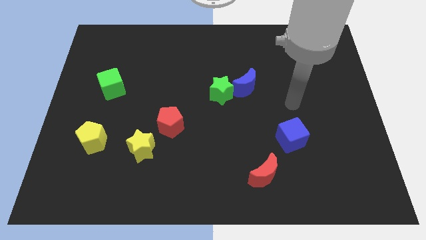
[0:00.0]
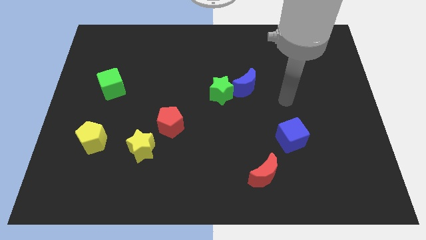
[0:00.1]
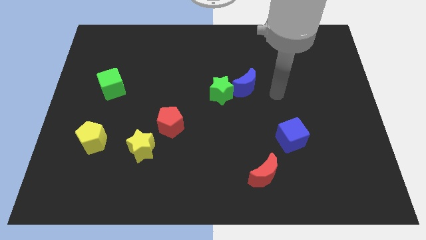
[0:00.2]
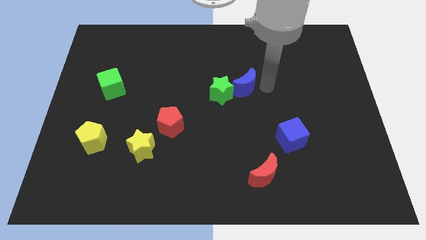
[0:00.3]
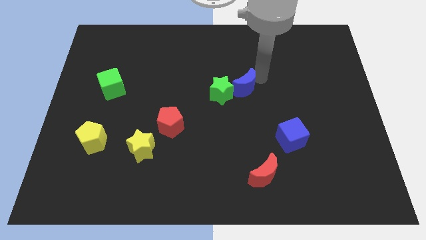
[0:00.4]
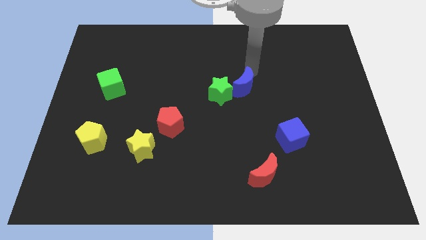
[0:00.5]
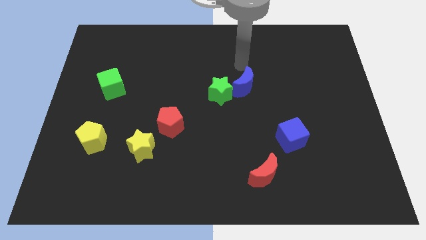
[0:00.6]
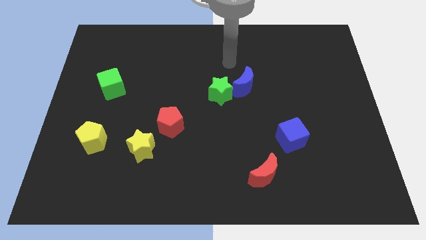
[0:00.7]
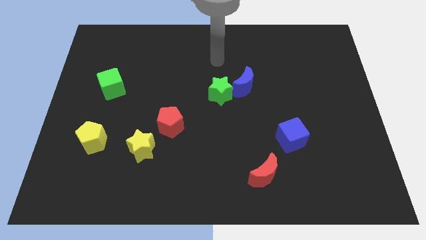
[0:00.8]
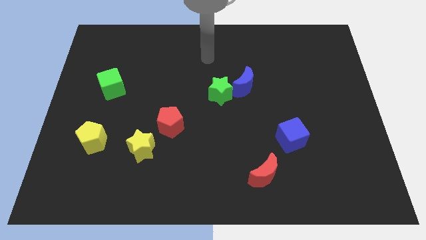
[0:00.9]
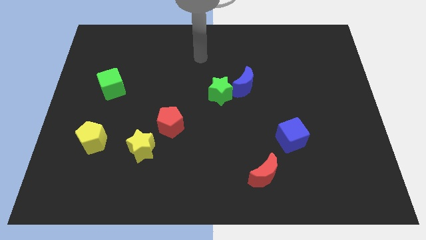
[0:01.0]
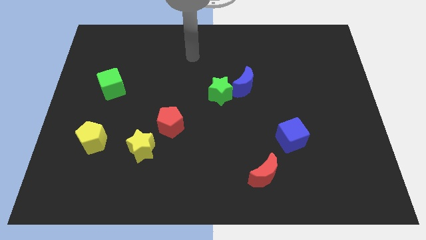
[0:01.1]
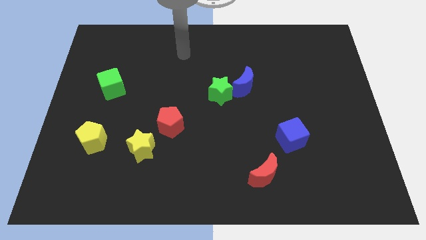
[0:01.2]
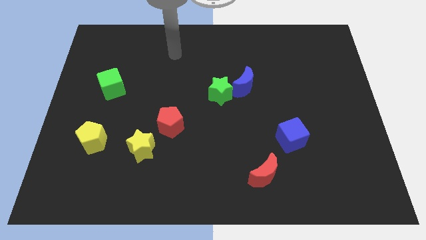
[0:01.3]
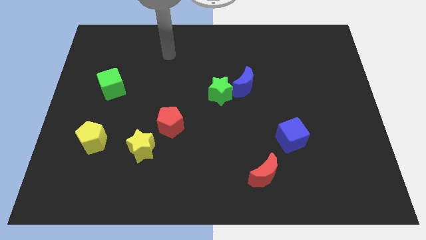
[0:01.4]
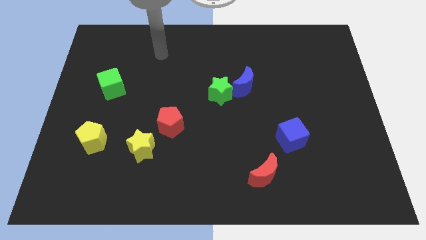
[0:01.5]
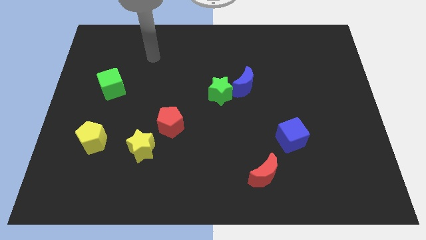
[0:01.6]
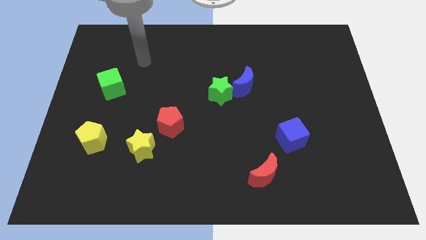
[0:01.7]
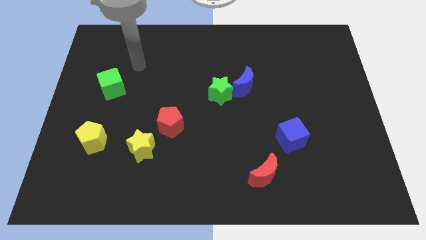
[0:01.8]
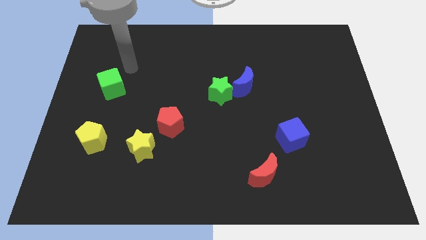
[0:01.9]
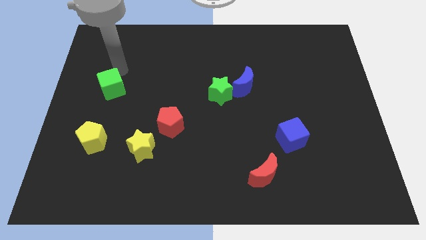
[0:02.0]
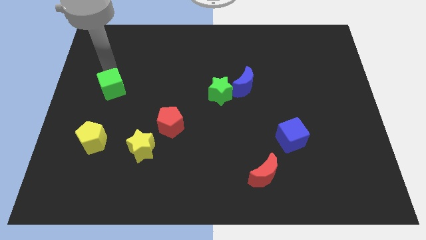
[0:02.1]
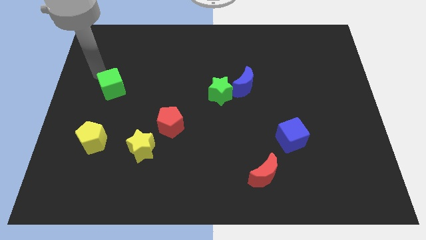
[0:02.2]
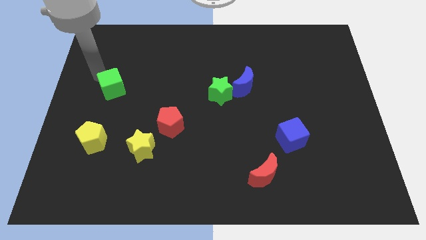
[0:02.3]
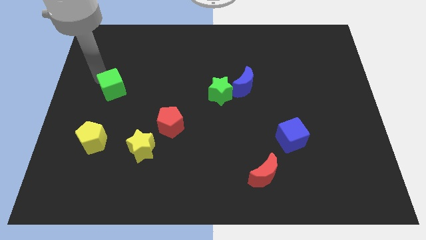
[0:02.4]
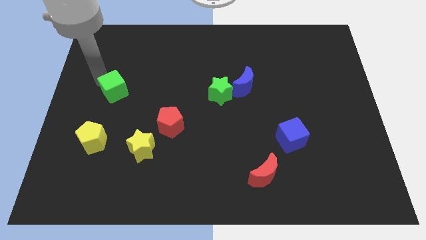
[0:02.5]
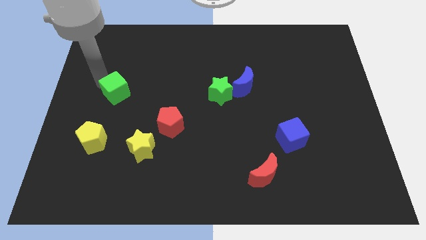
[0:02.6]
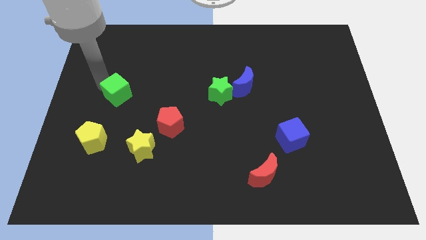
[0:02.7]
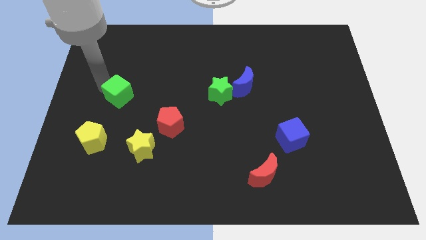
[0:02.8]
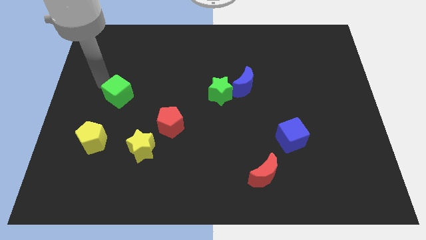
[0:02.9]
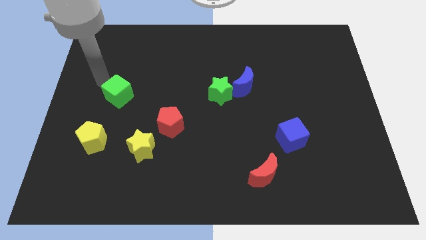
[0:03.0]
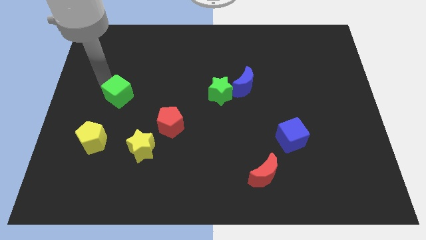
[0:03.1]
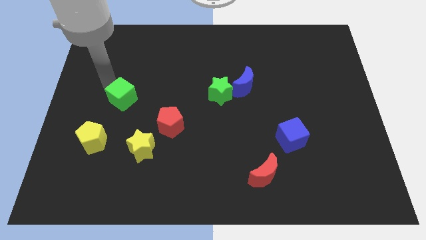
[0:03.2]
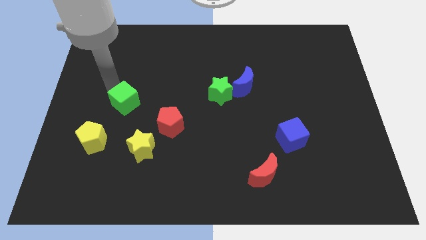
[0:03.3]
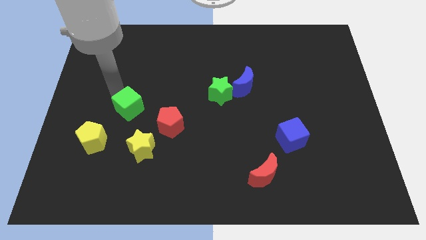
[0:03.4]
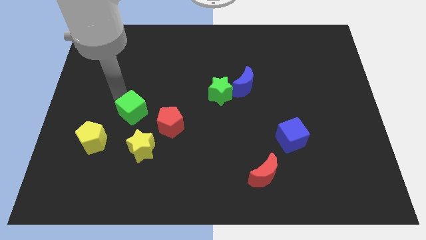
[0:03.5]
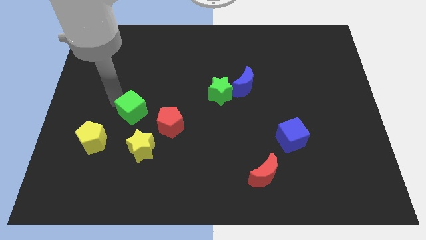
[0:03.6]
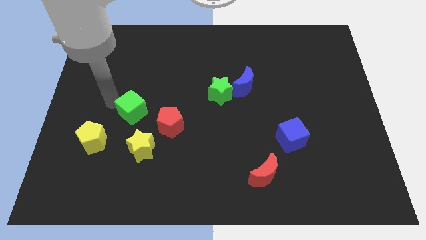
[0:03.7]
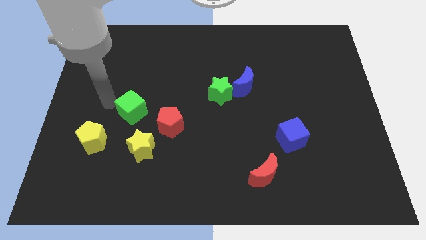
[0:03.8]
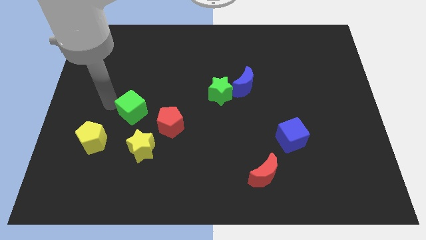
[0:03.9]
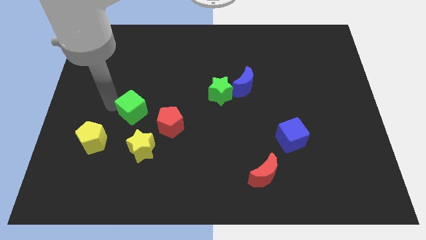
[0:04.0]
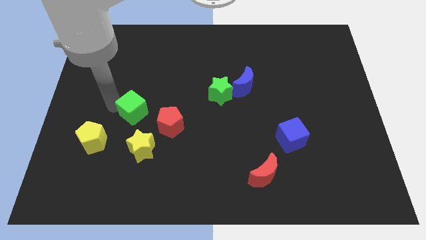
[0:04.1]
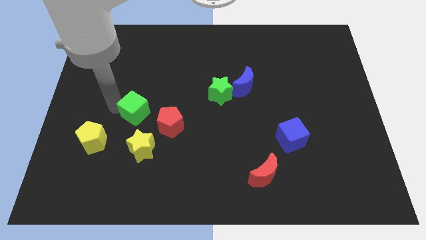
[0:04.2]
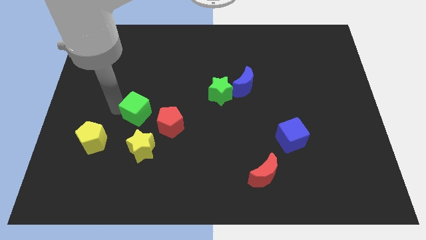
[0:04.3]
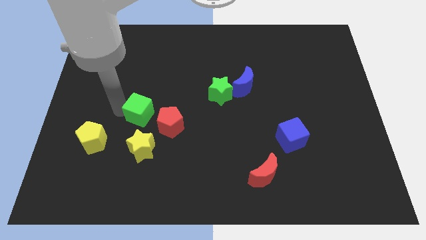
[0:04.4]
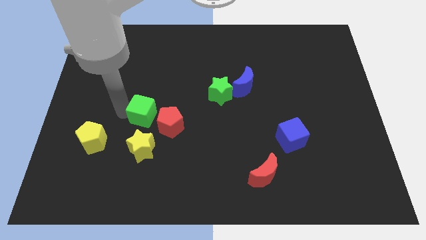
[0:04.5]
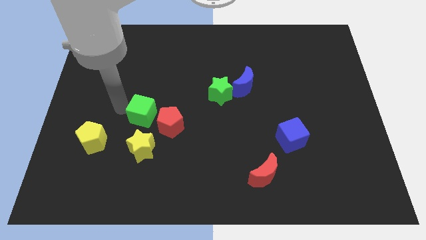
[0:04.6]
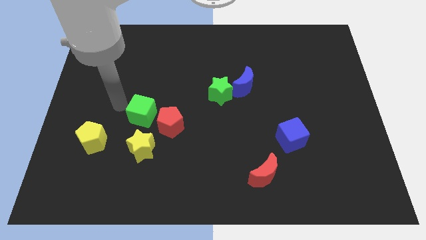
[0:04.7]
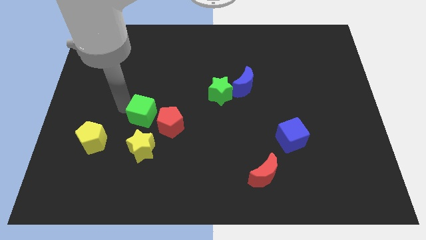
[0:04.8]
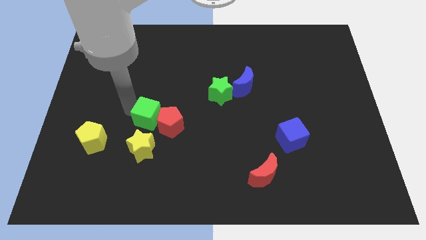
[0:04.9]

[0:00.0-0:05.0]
push the green cube towards the red pentagon

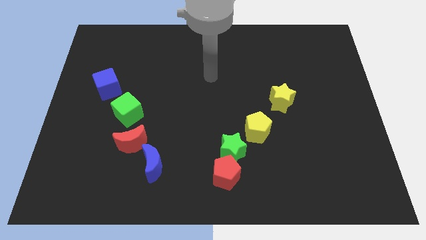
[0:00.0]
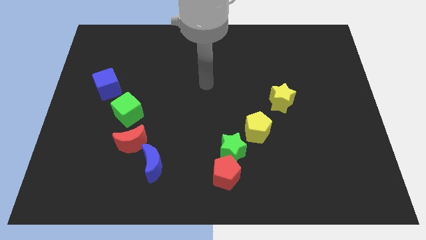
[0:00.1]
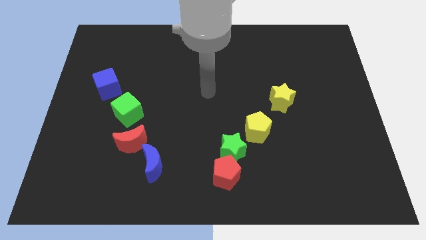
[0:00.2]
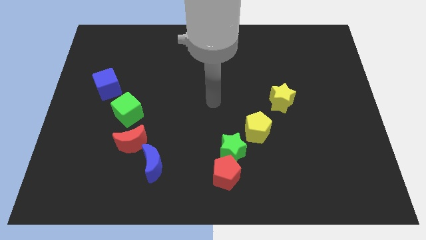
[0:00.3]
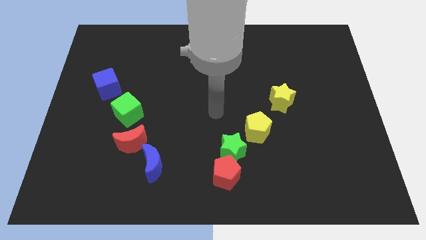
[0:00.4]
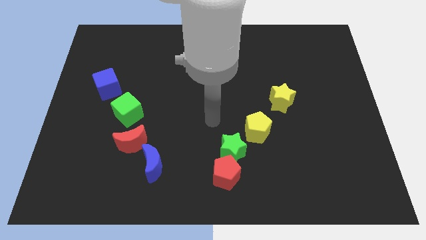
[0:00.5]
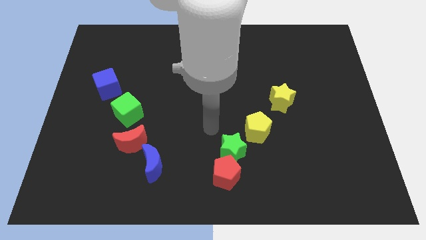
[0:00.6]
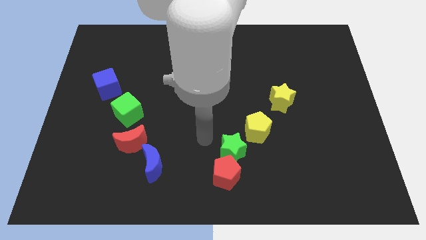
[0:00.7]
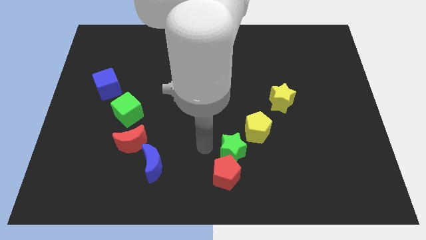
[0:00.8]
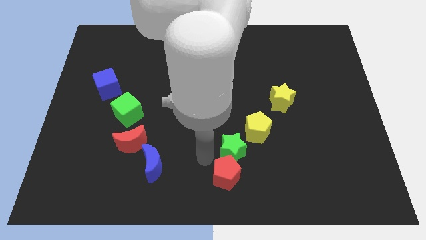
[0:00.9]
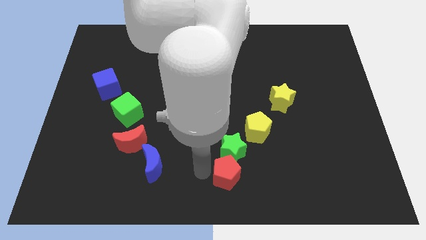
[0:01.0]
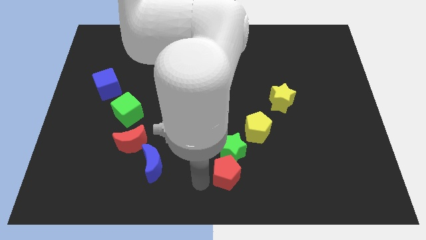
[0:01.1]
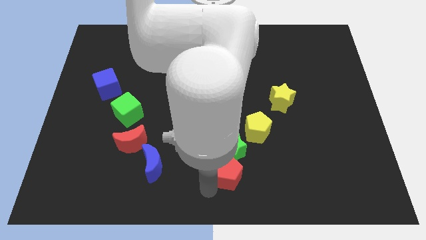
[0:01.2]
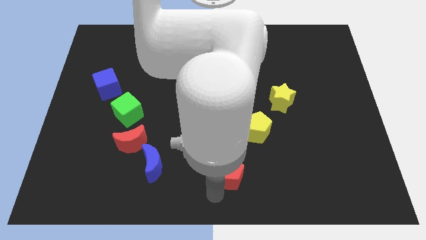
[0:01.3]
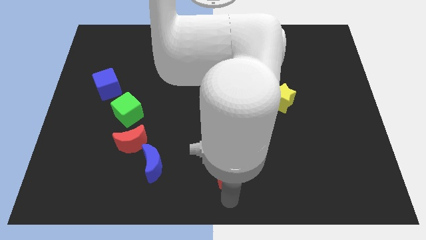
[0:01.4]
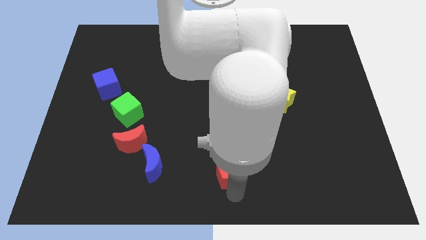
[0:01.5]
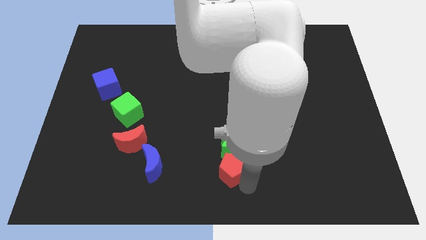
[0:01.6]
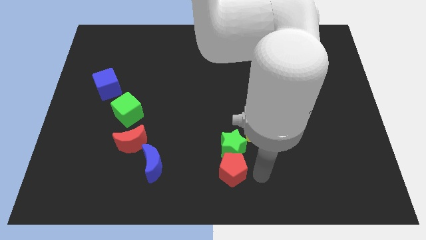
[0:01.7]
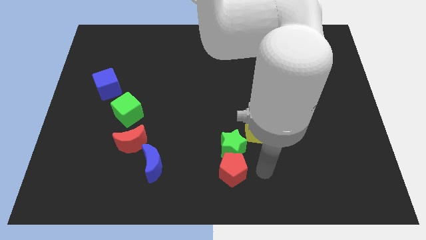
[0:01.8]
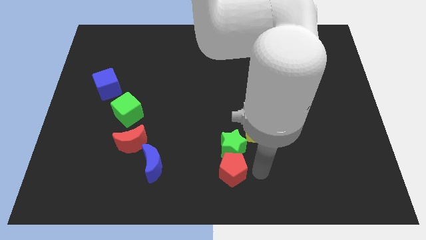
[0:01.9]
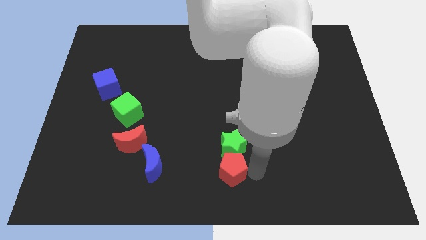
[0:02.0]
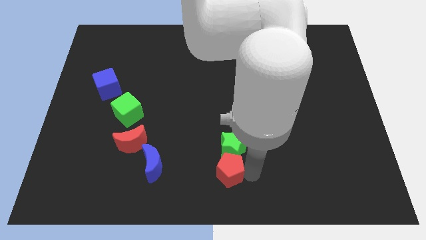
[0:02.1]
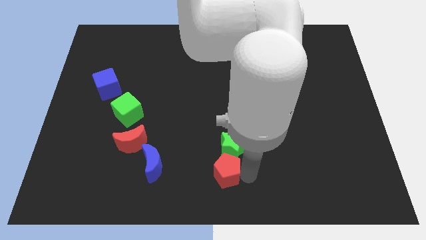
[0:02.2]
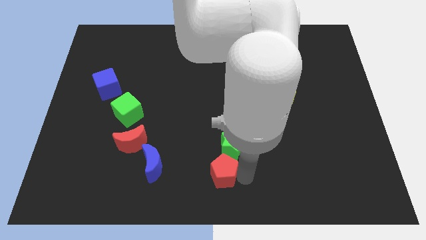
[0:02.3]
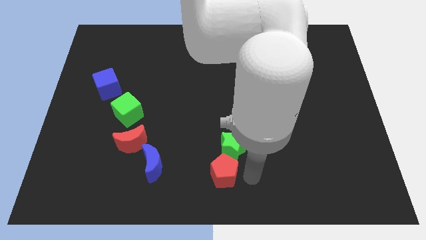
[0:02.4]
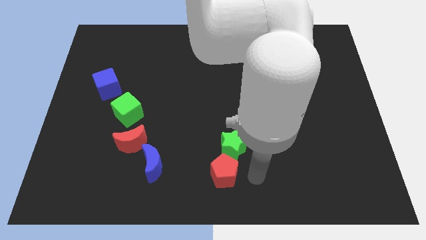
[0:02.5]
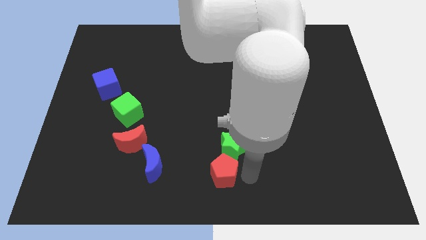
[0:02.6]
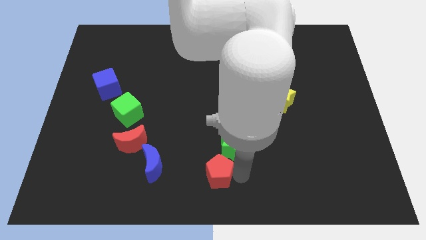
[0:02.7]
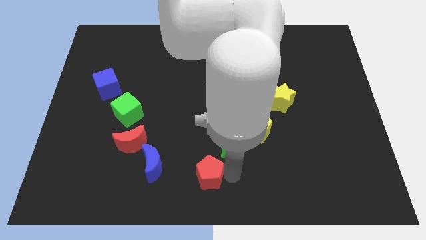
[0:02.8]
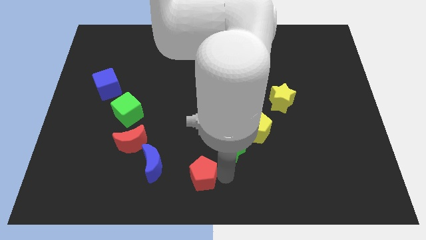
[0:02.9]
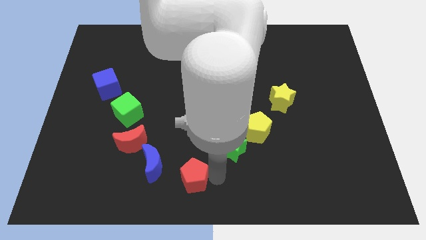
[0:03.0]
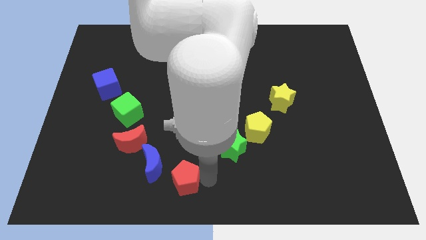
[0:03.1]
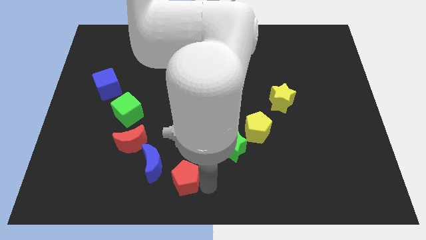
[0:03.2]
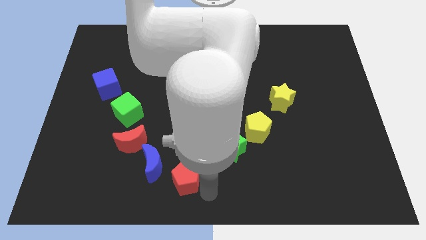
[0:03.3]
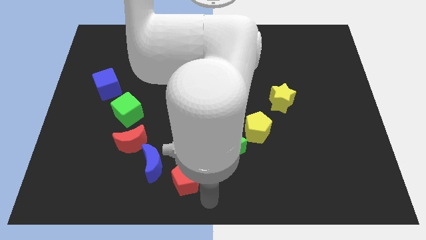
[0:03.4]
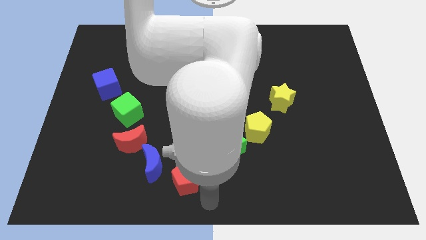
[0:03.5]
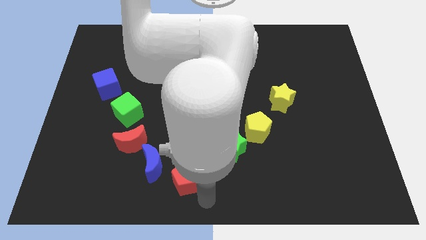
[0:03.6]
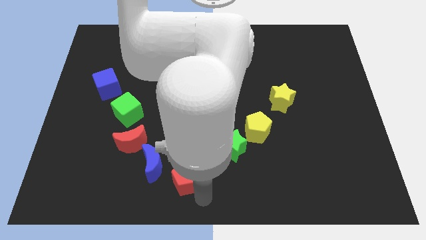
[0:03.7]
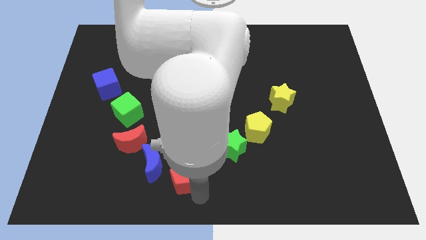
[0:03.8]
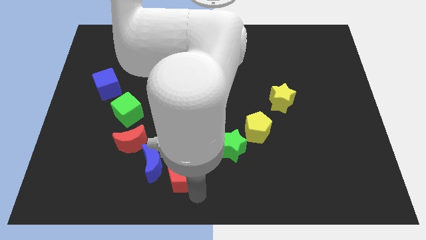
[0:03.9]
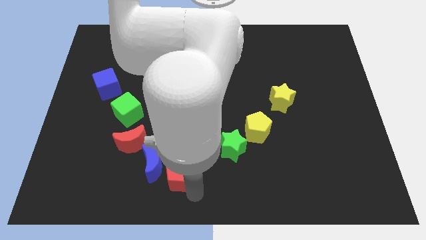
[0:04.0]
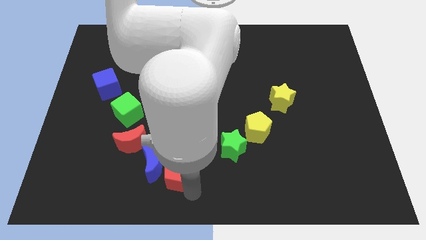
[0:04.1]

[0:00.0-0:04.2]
put the red pentagon next to the blue moon
